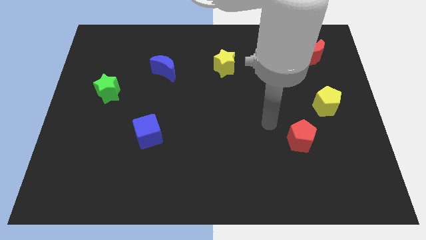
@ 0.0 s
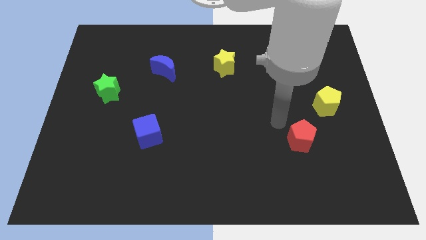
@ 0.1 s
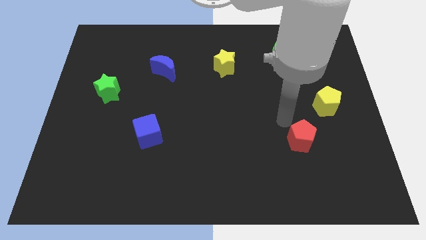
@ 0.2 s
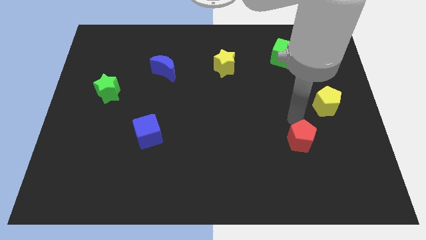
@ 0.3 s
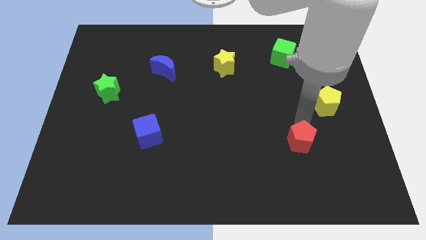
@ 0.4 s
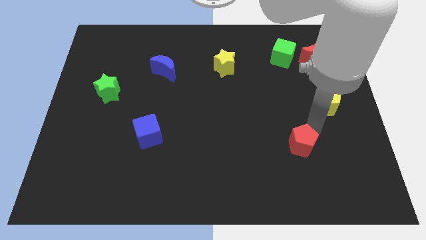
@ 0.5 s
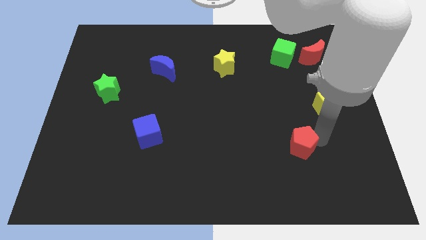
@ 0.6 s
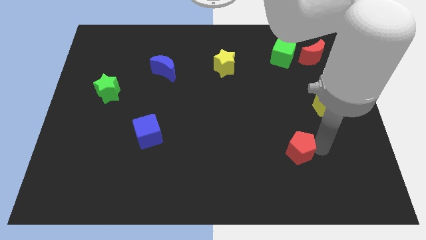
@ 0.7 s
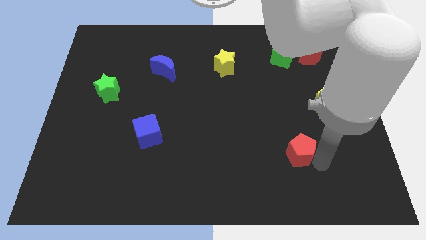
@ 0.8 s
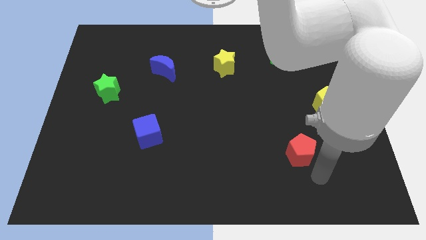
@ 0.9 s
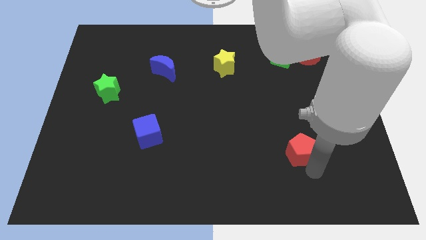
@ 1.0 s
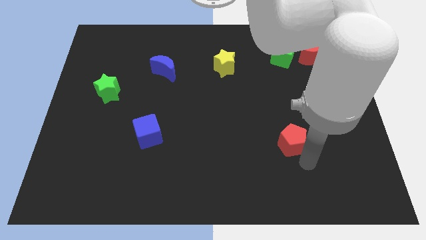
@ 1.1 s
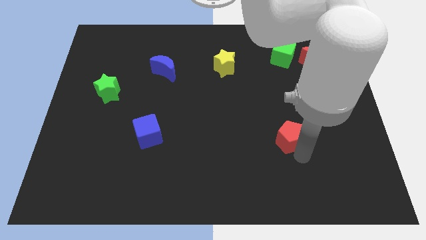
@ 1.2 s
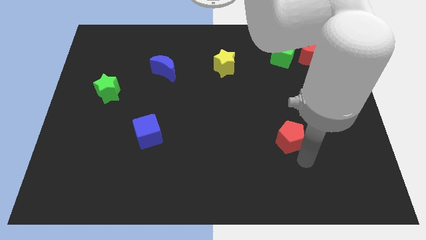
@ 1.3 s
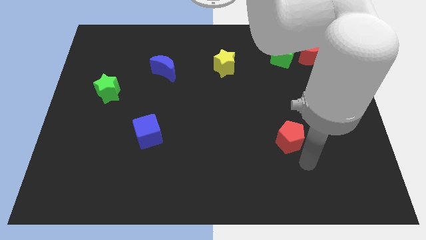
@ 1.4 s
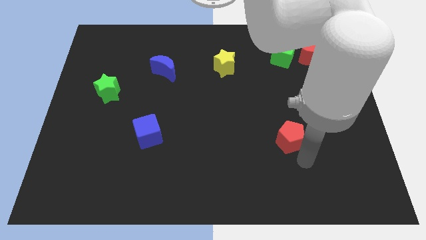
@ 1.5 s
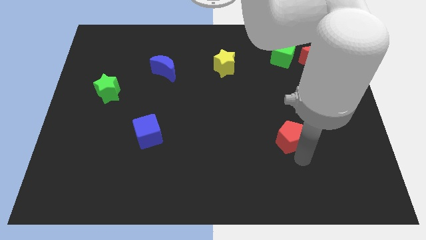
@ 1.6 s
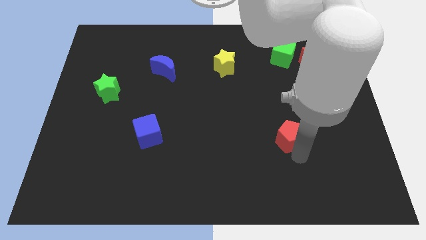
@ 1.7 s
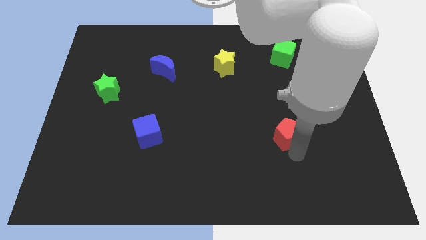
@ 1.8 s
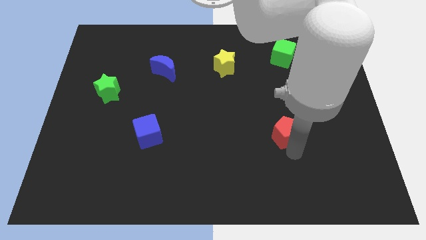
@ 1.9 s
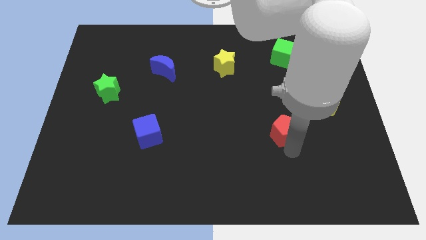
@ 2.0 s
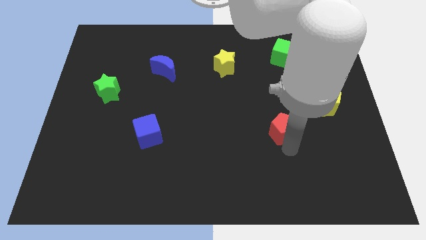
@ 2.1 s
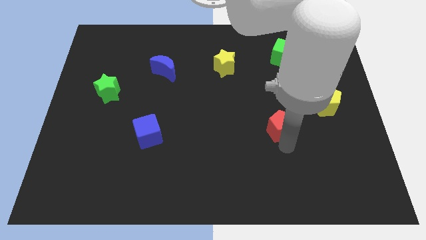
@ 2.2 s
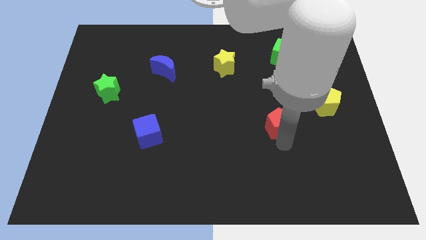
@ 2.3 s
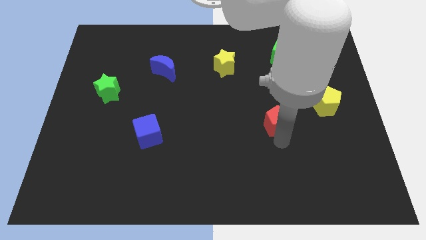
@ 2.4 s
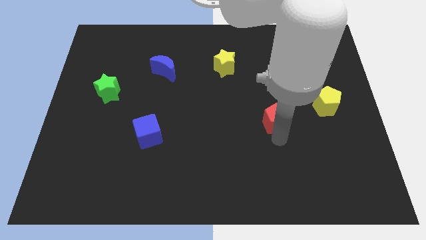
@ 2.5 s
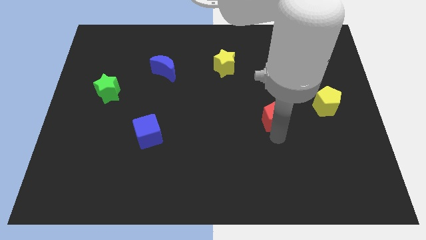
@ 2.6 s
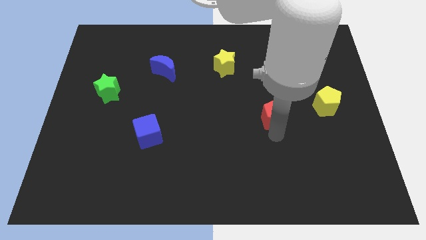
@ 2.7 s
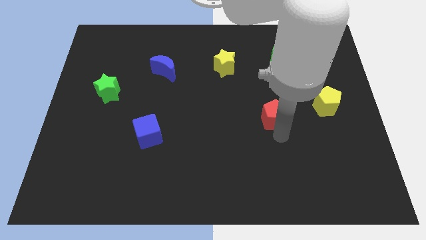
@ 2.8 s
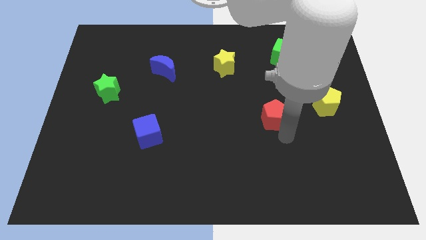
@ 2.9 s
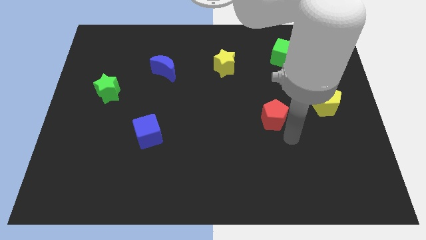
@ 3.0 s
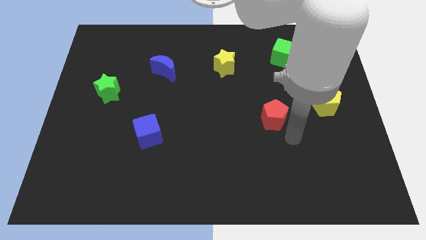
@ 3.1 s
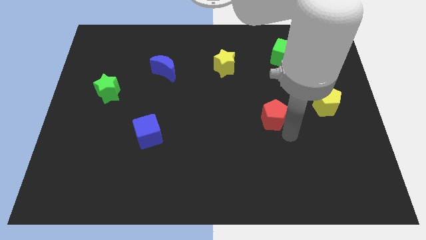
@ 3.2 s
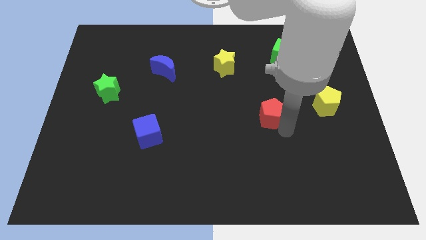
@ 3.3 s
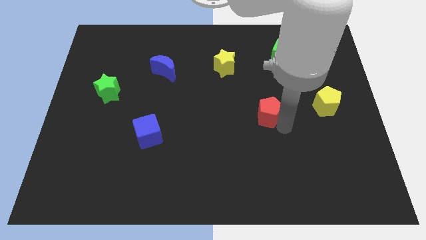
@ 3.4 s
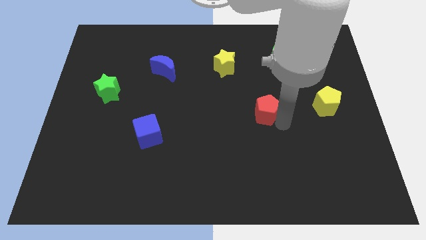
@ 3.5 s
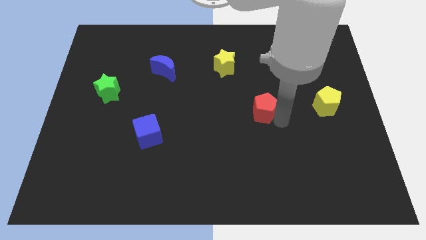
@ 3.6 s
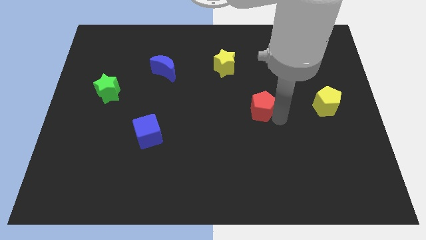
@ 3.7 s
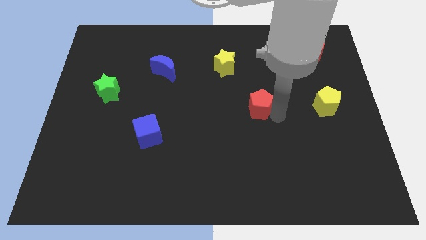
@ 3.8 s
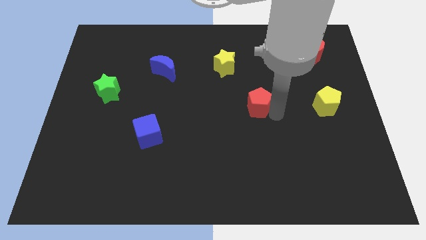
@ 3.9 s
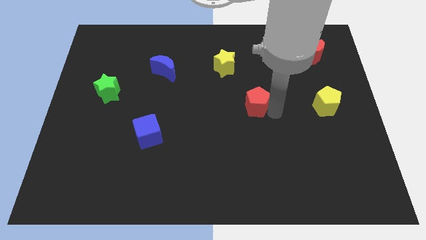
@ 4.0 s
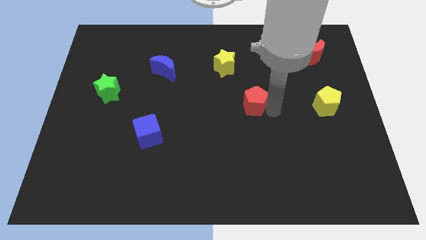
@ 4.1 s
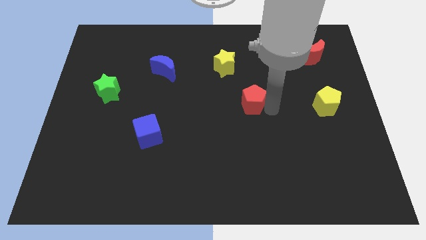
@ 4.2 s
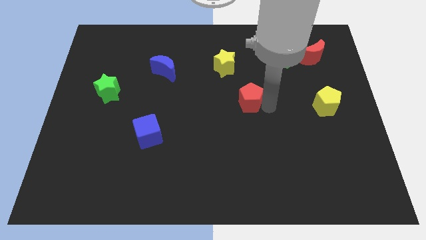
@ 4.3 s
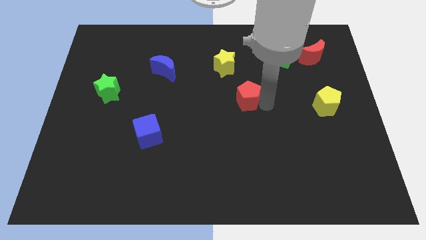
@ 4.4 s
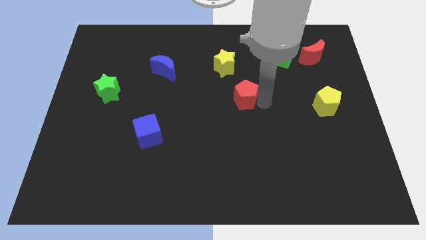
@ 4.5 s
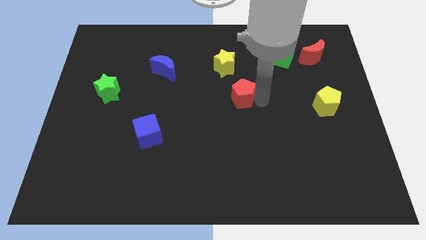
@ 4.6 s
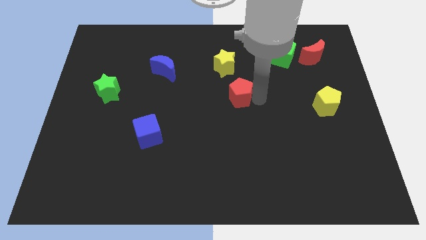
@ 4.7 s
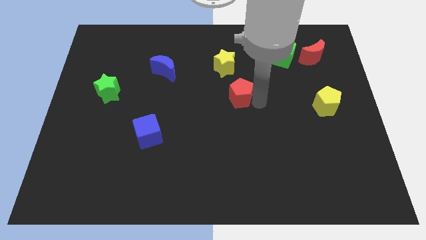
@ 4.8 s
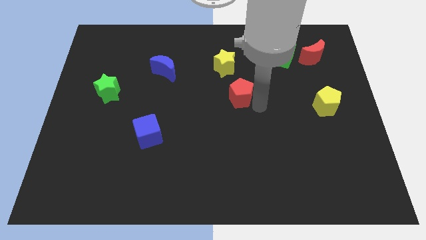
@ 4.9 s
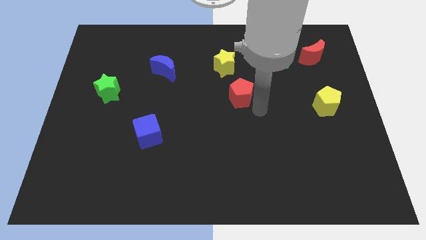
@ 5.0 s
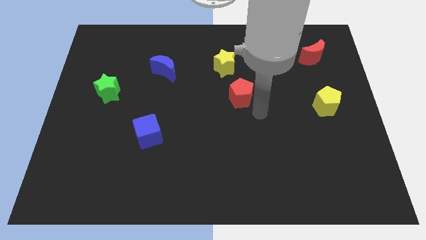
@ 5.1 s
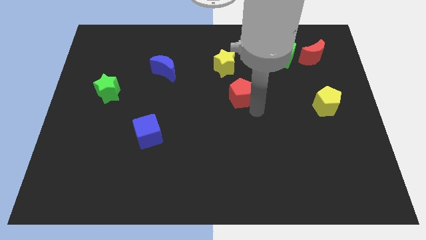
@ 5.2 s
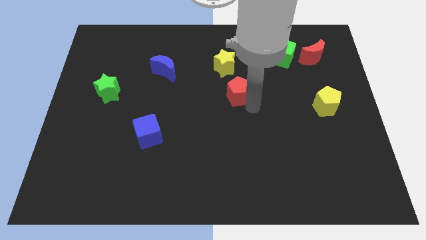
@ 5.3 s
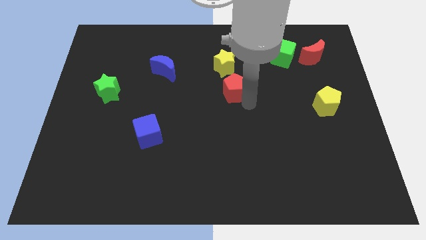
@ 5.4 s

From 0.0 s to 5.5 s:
move the red pentagon upwards and left

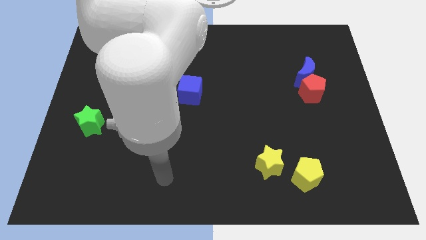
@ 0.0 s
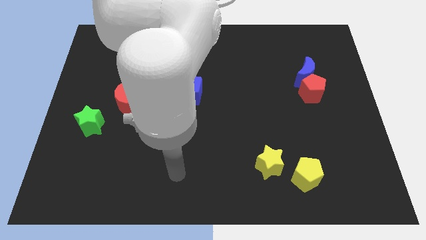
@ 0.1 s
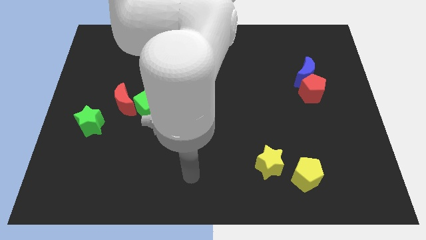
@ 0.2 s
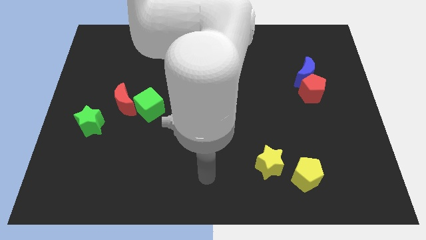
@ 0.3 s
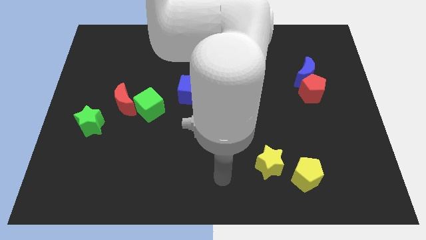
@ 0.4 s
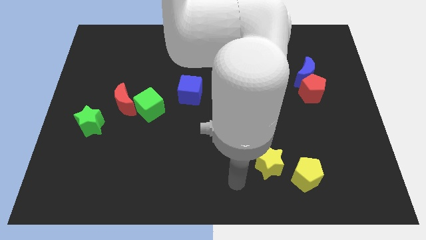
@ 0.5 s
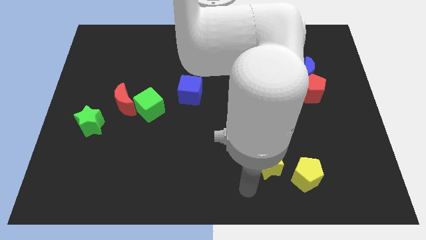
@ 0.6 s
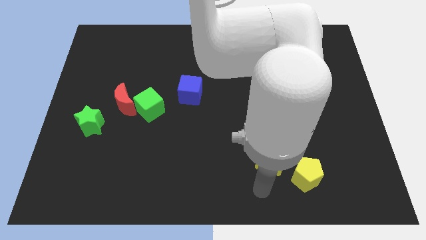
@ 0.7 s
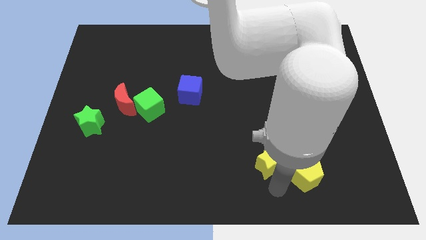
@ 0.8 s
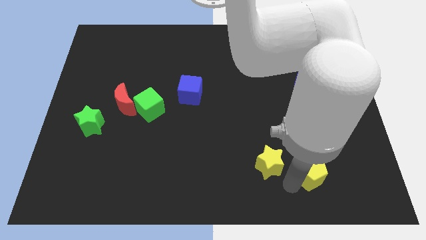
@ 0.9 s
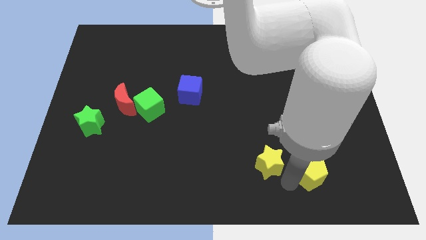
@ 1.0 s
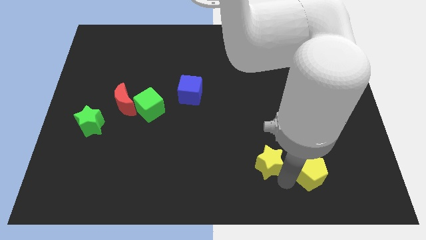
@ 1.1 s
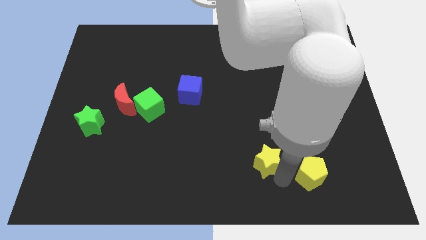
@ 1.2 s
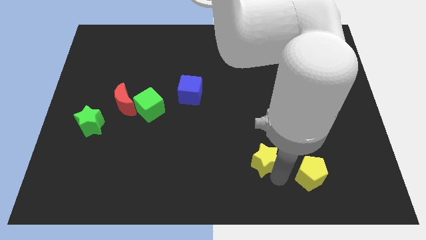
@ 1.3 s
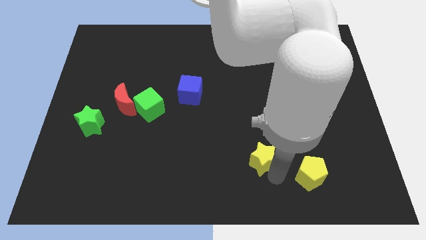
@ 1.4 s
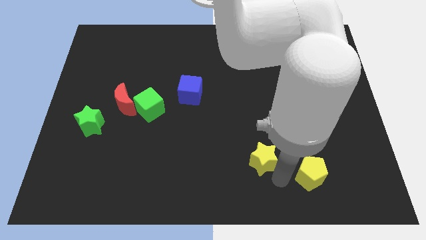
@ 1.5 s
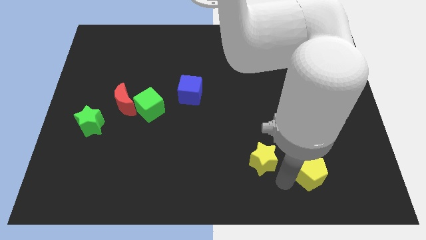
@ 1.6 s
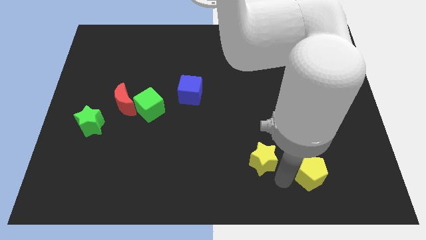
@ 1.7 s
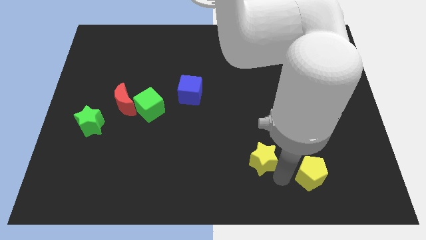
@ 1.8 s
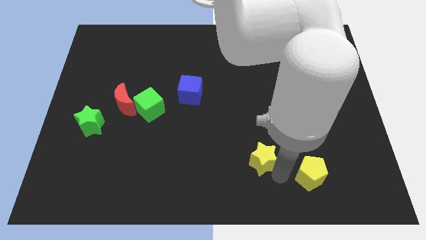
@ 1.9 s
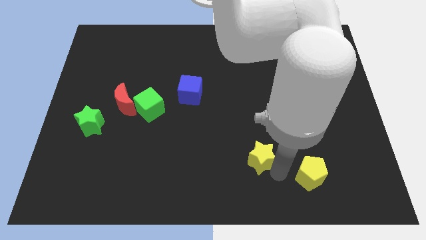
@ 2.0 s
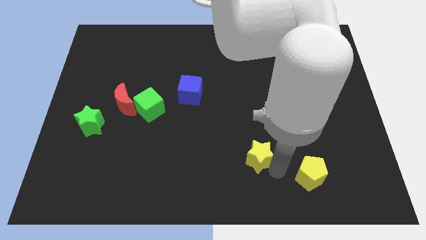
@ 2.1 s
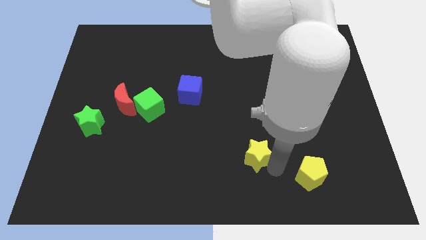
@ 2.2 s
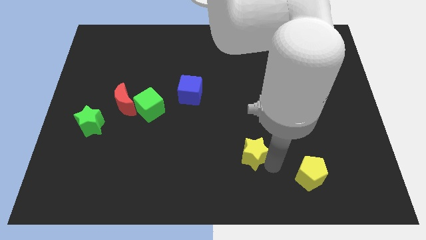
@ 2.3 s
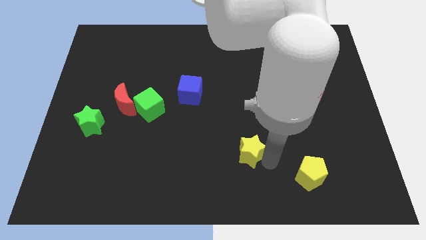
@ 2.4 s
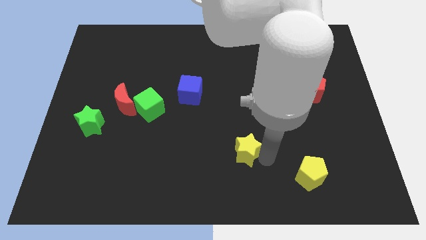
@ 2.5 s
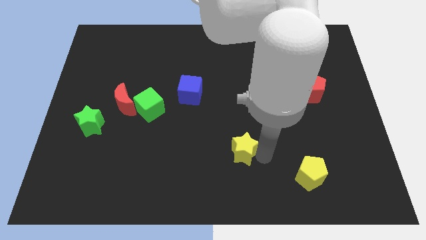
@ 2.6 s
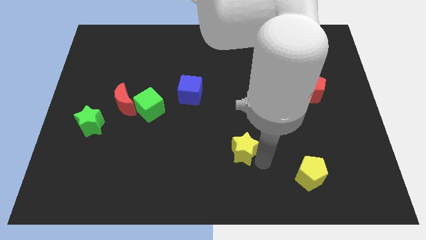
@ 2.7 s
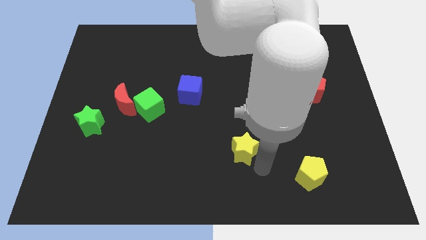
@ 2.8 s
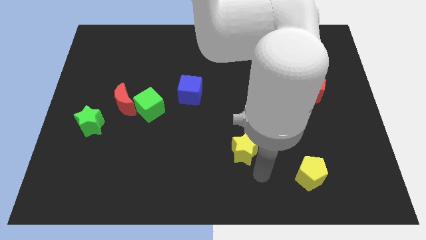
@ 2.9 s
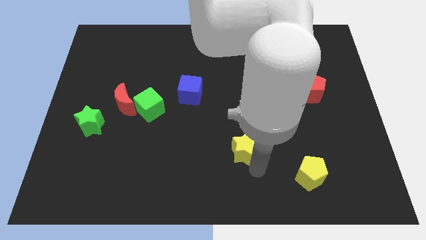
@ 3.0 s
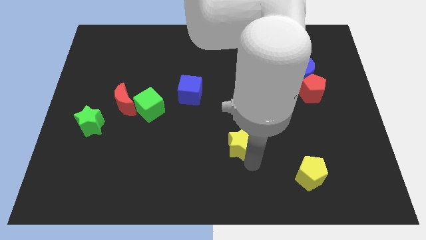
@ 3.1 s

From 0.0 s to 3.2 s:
move the yellow star a little upwards and to the left diagonally
